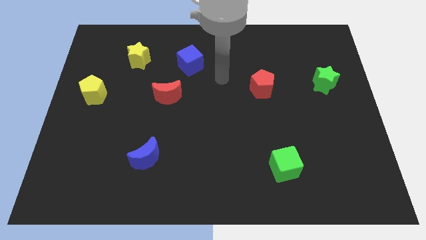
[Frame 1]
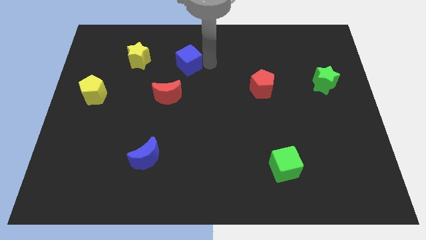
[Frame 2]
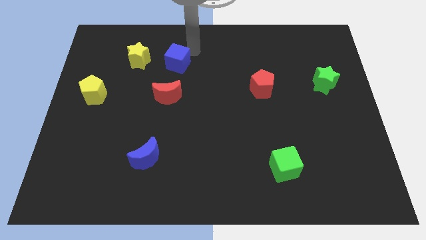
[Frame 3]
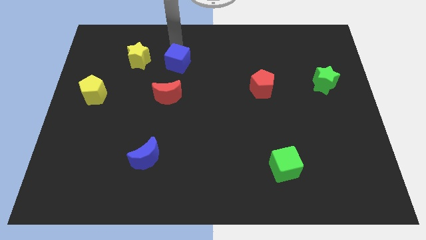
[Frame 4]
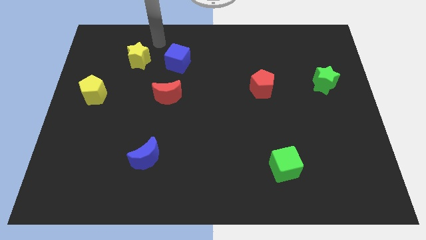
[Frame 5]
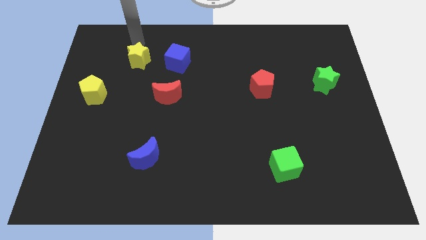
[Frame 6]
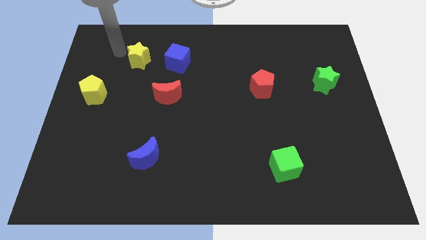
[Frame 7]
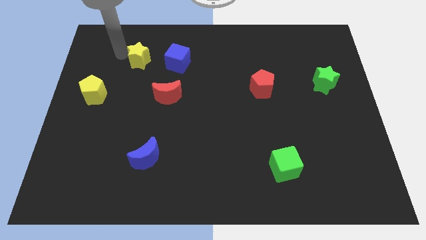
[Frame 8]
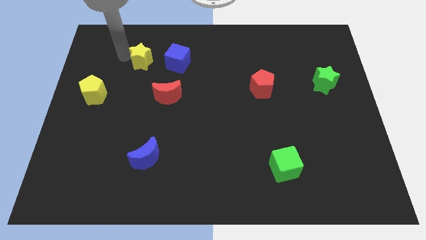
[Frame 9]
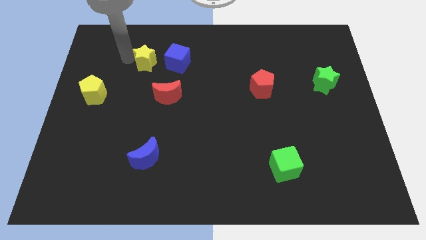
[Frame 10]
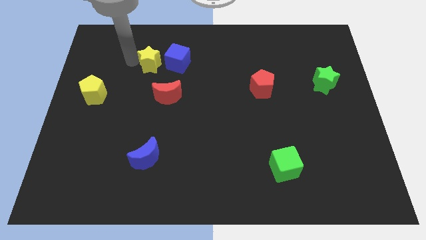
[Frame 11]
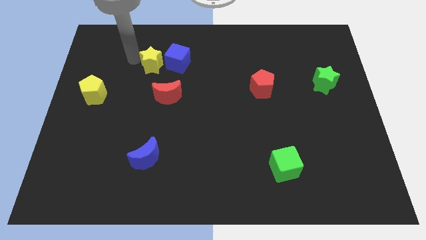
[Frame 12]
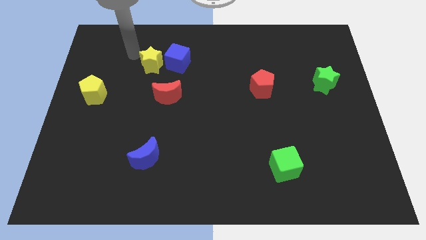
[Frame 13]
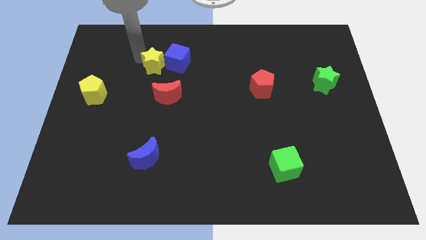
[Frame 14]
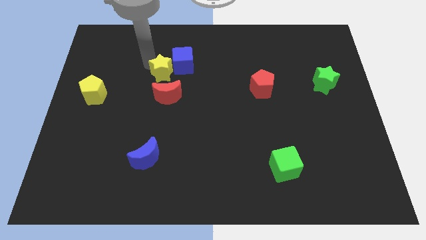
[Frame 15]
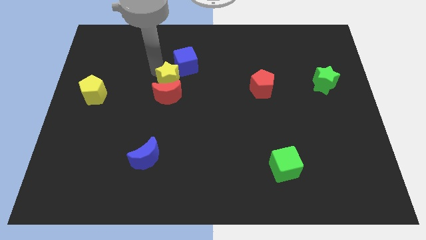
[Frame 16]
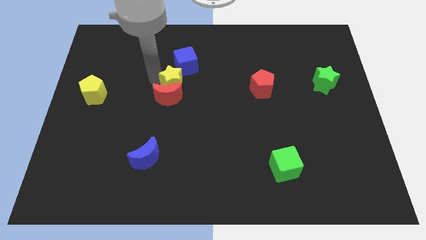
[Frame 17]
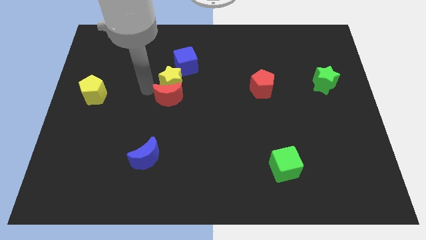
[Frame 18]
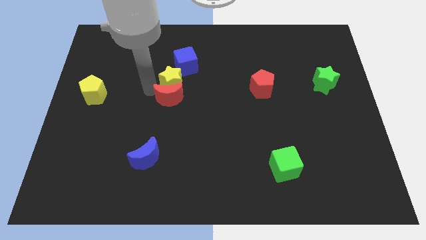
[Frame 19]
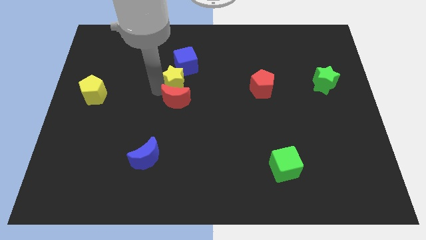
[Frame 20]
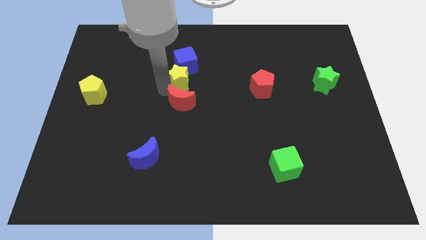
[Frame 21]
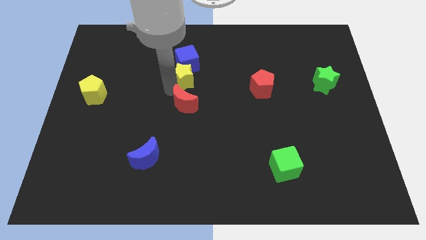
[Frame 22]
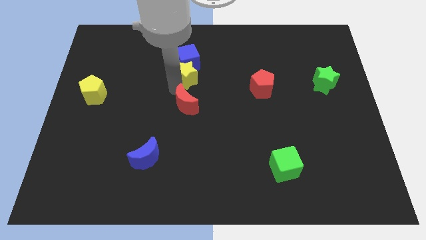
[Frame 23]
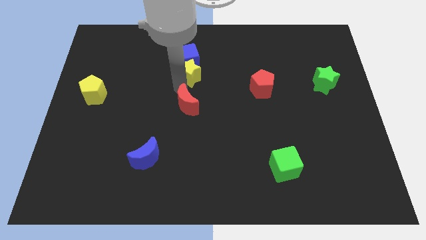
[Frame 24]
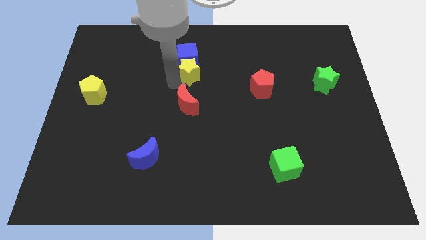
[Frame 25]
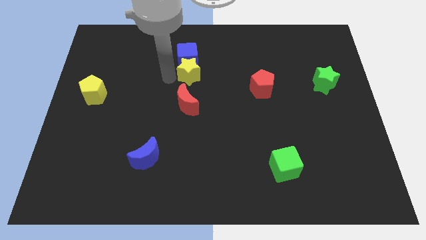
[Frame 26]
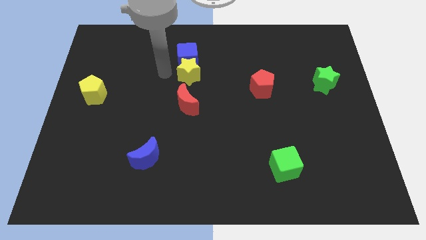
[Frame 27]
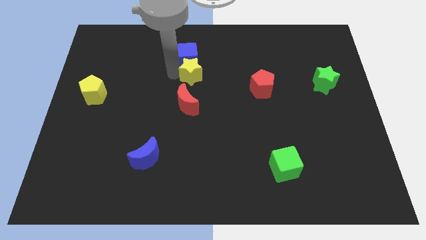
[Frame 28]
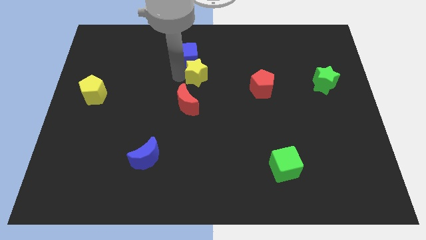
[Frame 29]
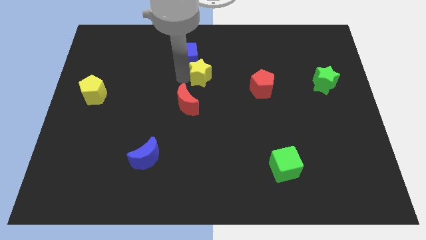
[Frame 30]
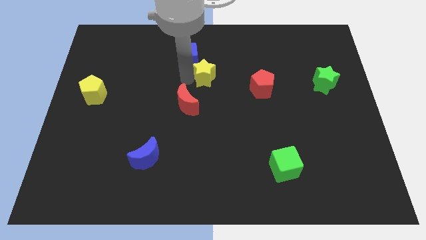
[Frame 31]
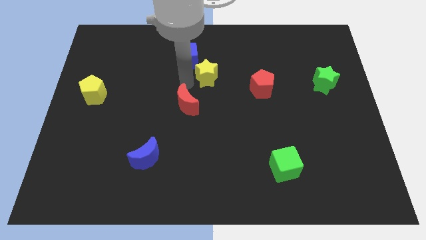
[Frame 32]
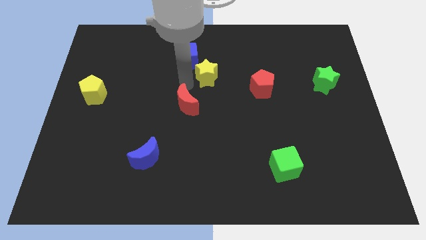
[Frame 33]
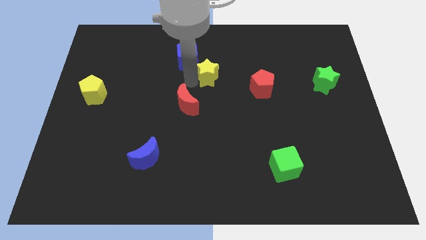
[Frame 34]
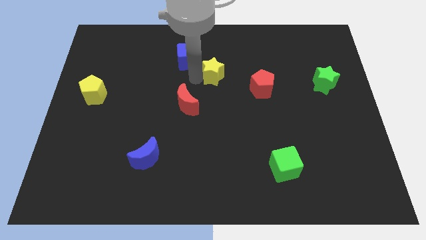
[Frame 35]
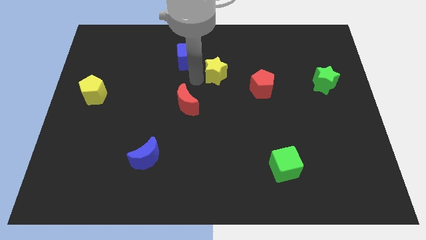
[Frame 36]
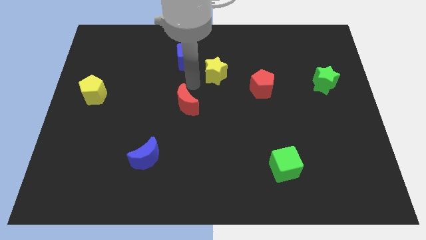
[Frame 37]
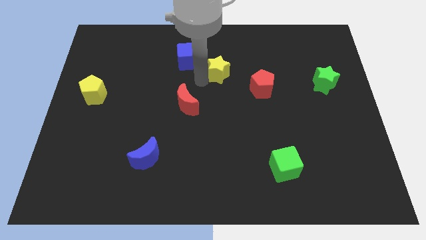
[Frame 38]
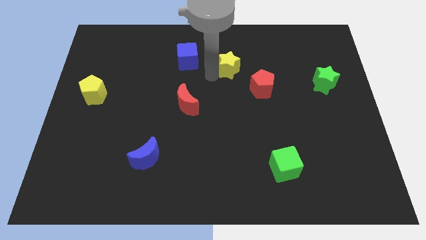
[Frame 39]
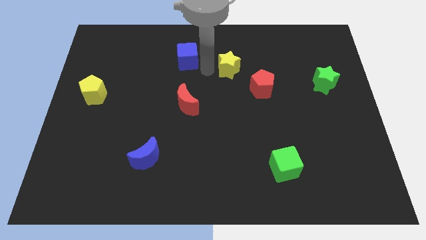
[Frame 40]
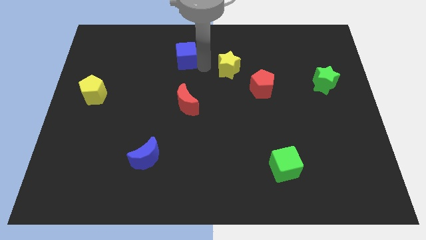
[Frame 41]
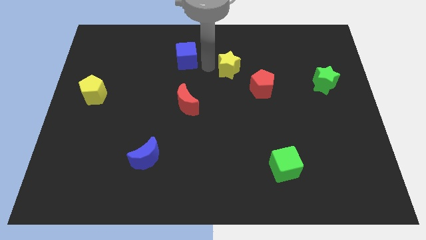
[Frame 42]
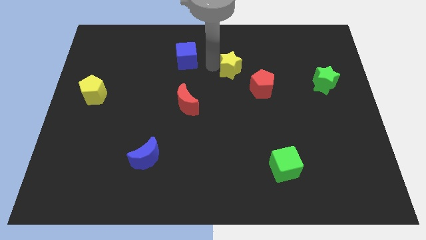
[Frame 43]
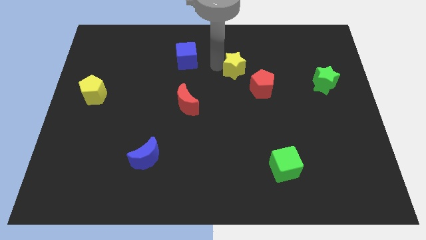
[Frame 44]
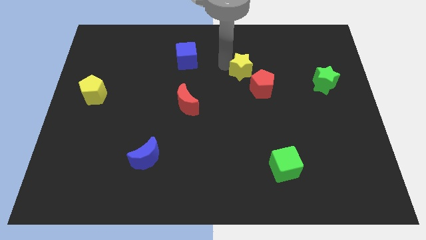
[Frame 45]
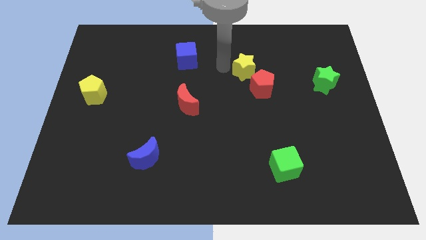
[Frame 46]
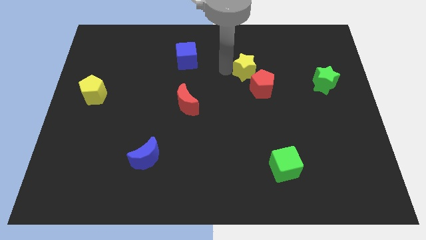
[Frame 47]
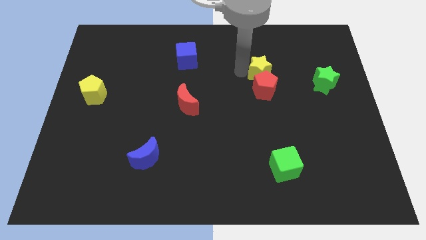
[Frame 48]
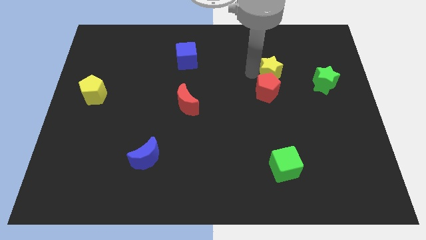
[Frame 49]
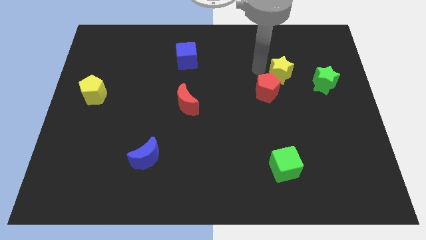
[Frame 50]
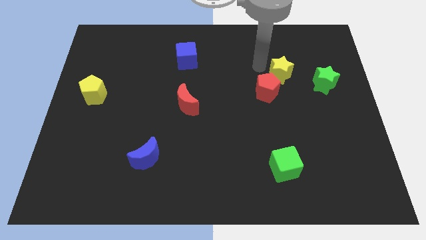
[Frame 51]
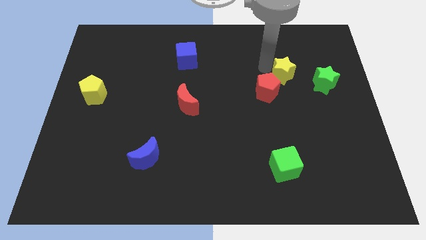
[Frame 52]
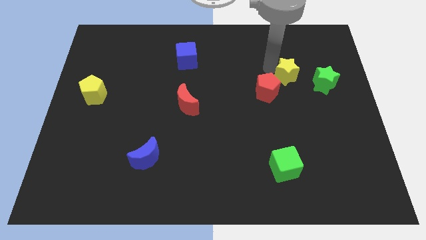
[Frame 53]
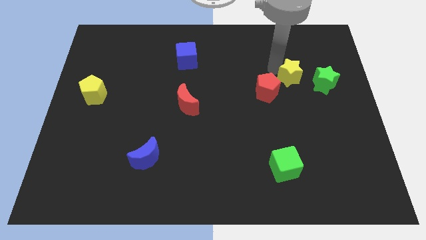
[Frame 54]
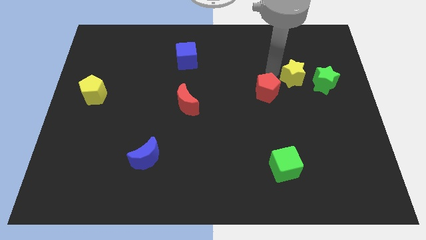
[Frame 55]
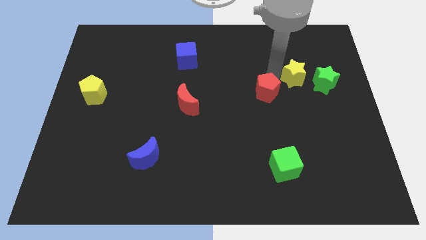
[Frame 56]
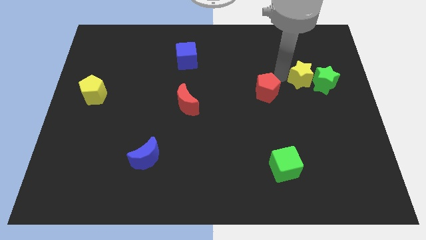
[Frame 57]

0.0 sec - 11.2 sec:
move the yellow star towards the green star
